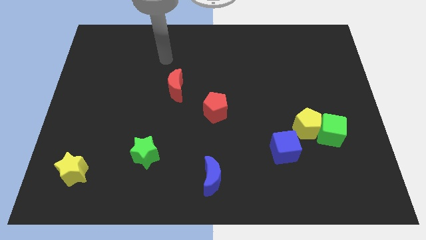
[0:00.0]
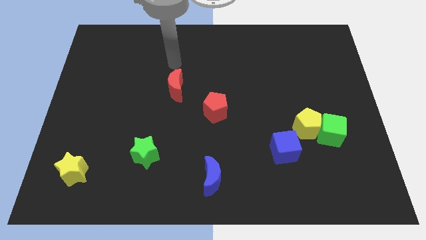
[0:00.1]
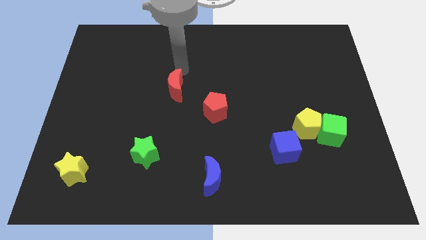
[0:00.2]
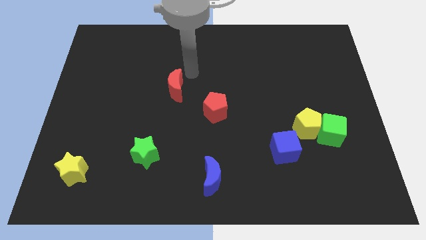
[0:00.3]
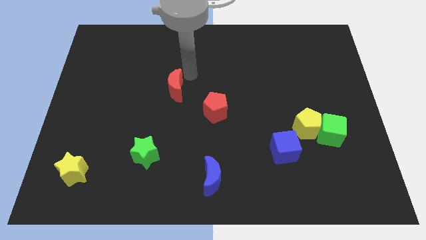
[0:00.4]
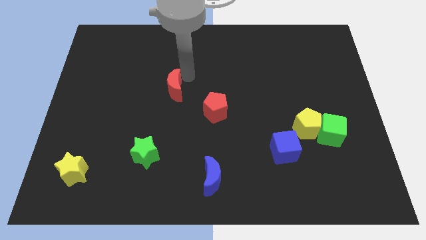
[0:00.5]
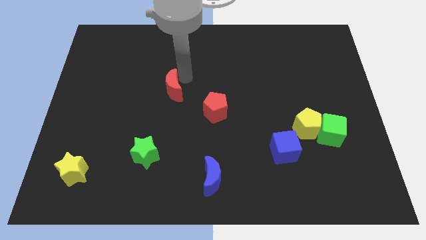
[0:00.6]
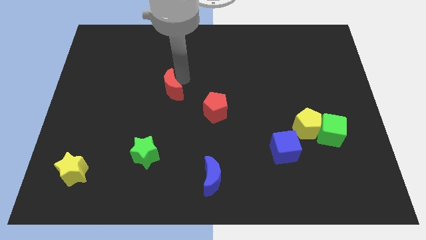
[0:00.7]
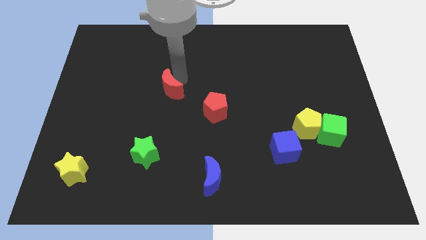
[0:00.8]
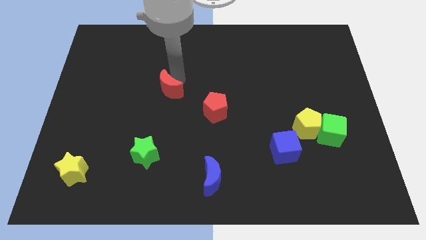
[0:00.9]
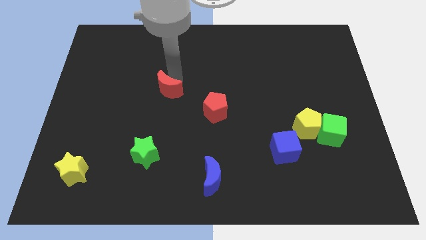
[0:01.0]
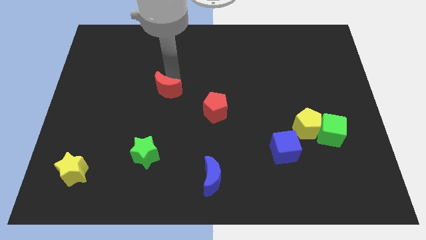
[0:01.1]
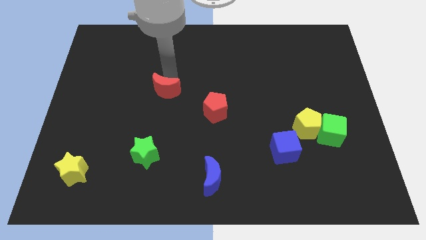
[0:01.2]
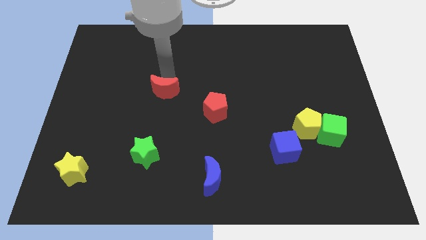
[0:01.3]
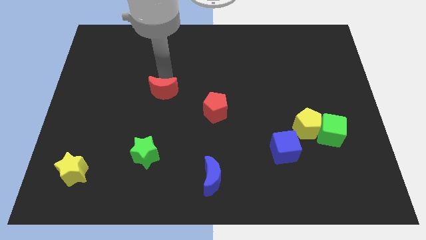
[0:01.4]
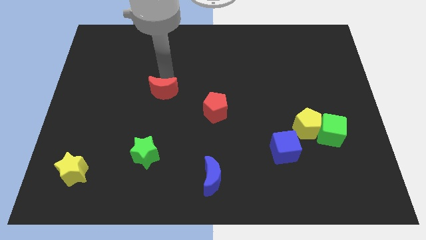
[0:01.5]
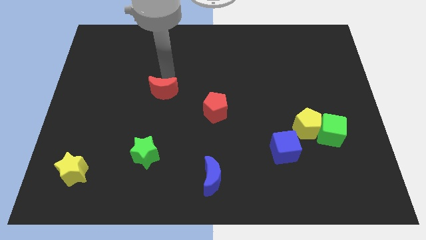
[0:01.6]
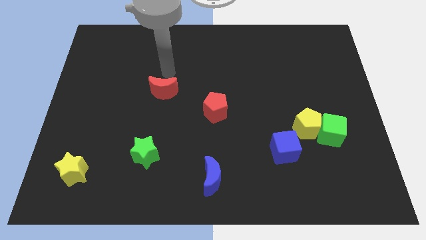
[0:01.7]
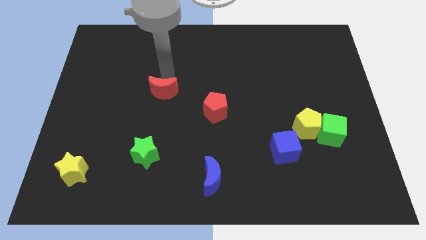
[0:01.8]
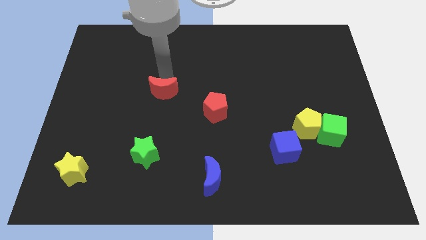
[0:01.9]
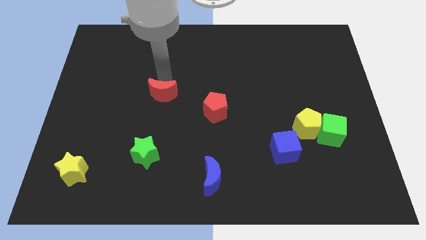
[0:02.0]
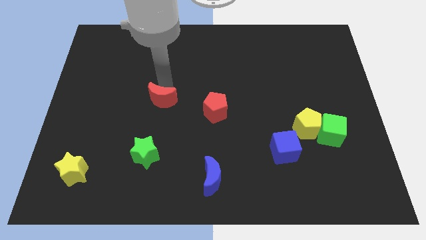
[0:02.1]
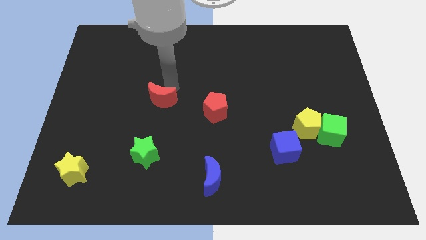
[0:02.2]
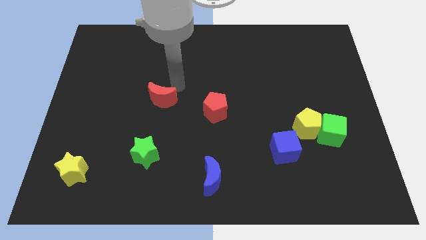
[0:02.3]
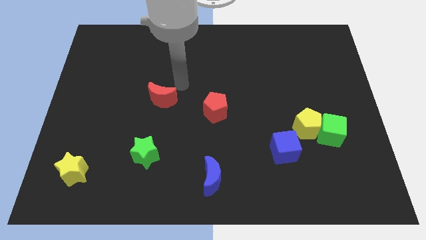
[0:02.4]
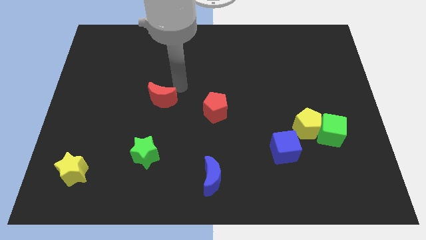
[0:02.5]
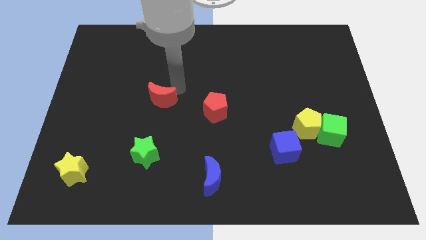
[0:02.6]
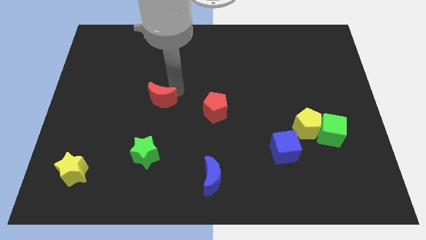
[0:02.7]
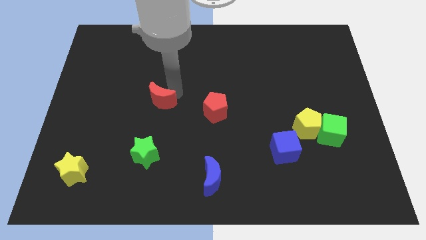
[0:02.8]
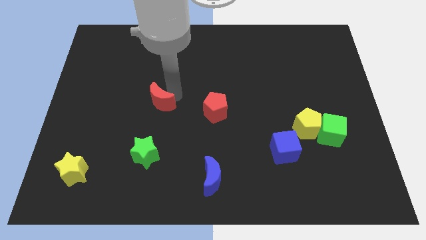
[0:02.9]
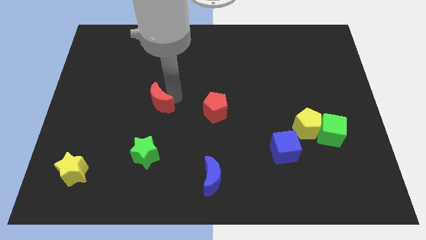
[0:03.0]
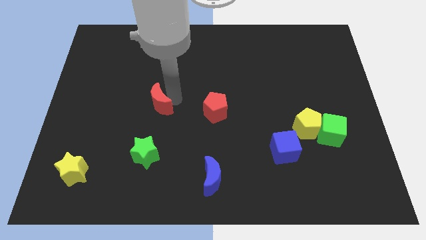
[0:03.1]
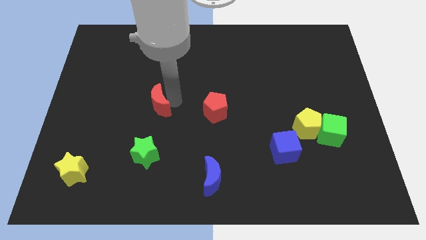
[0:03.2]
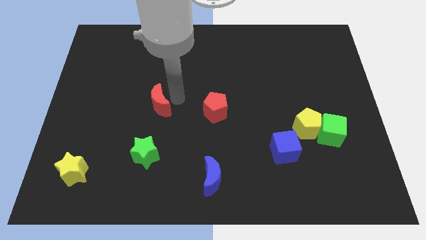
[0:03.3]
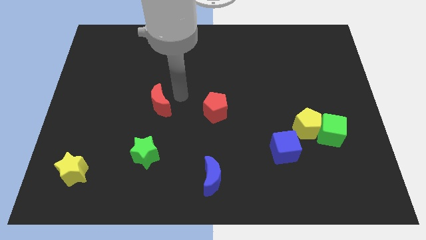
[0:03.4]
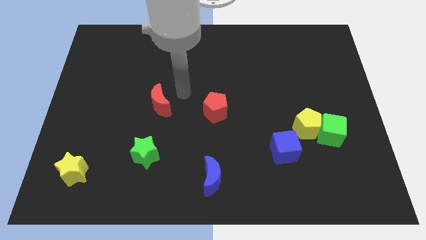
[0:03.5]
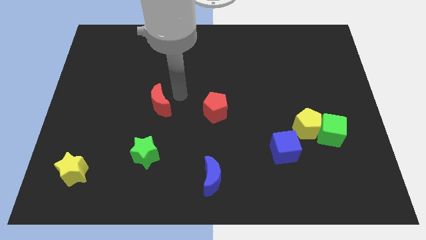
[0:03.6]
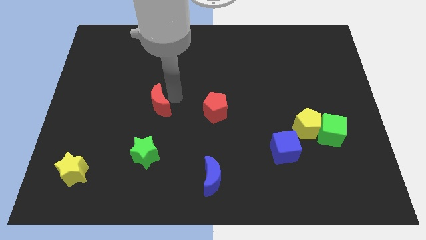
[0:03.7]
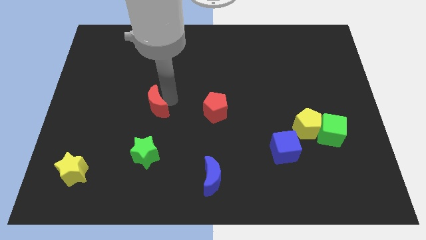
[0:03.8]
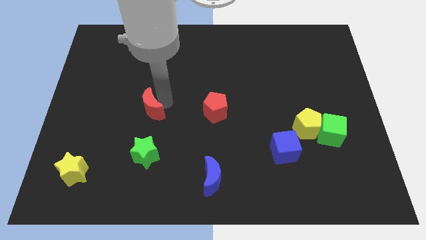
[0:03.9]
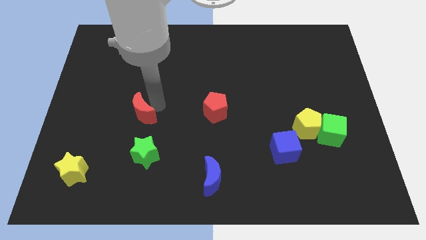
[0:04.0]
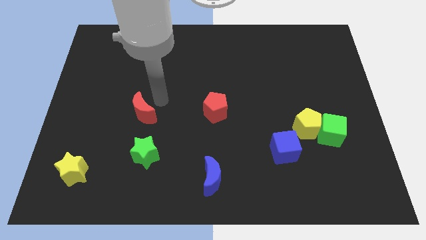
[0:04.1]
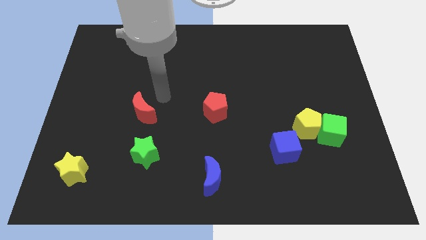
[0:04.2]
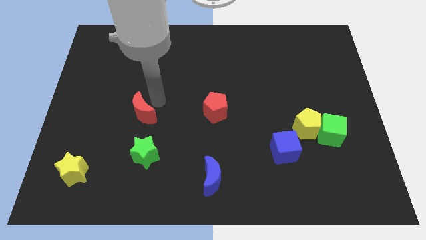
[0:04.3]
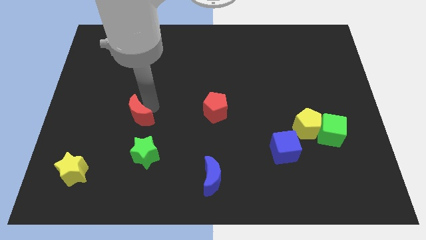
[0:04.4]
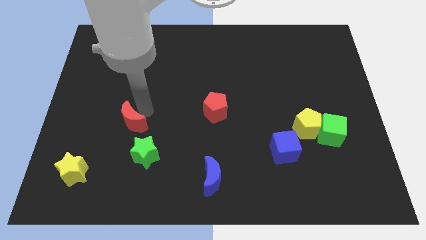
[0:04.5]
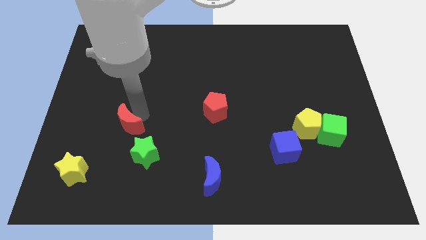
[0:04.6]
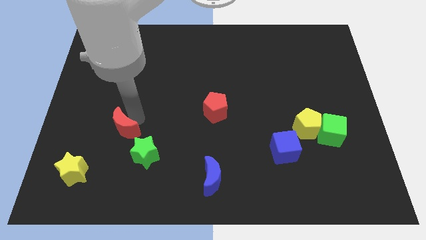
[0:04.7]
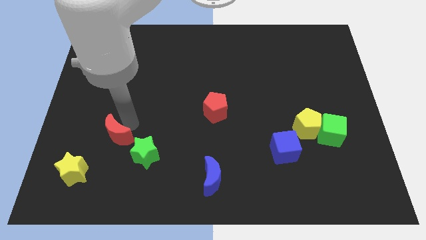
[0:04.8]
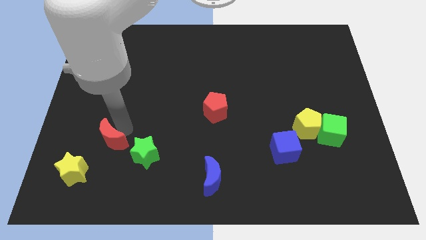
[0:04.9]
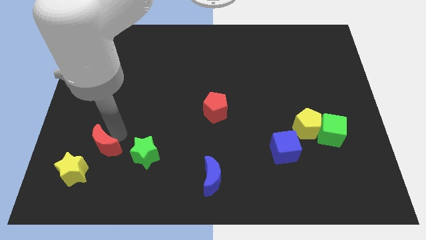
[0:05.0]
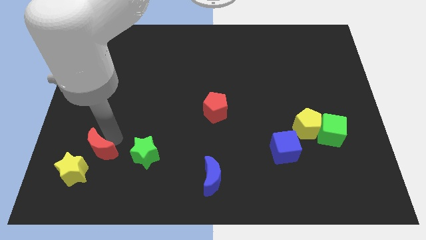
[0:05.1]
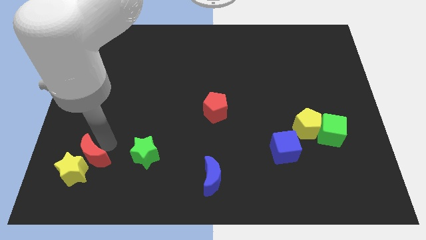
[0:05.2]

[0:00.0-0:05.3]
move the red moon towards the yellow star

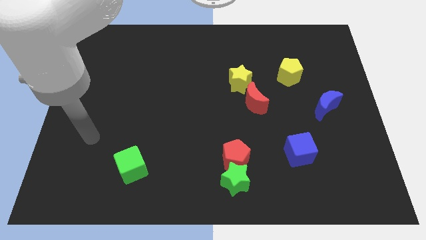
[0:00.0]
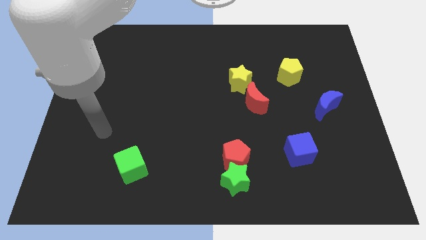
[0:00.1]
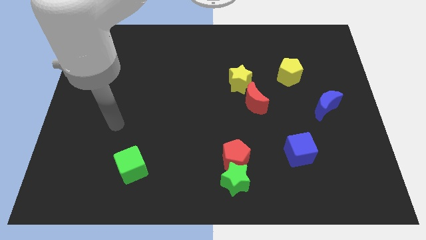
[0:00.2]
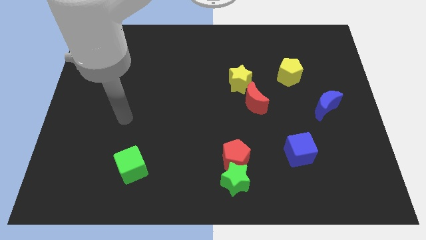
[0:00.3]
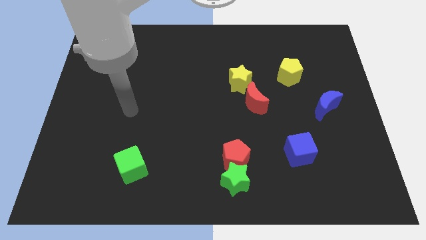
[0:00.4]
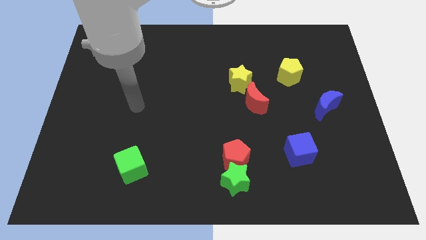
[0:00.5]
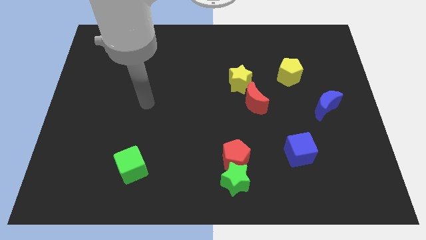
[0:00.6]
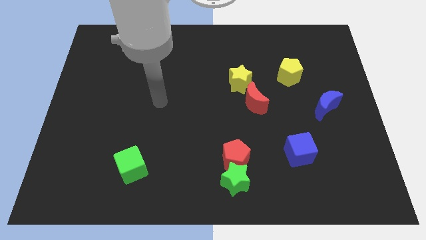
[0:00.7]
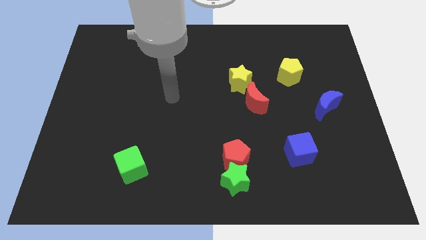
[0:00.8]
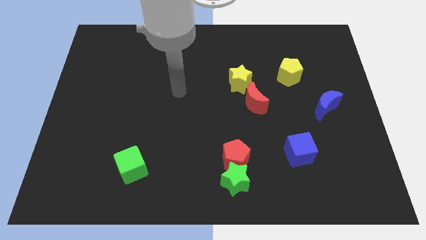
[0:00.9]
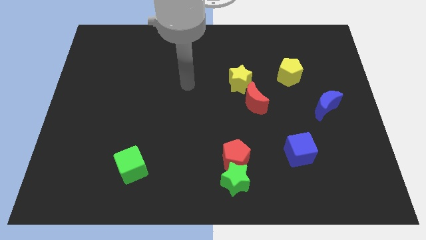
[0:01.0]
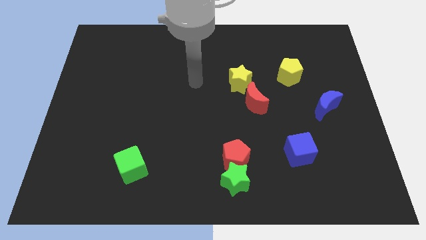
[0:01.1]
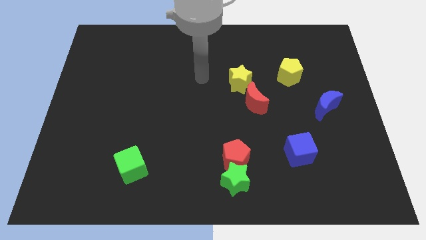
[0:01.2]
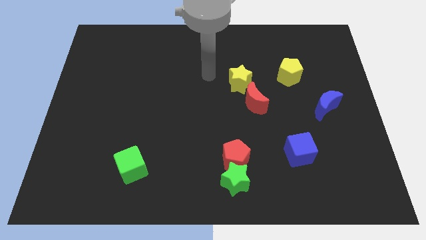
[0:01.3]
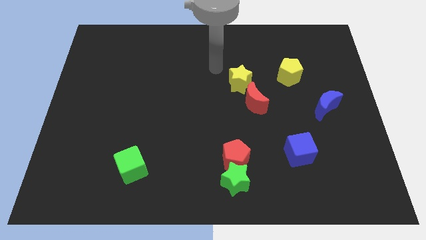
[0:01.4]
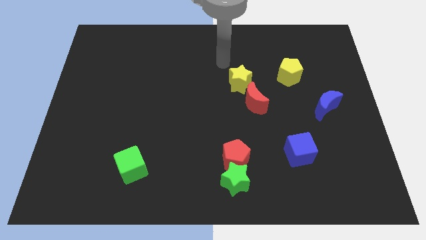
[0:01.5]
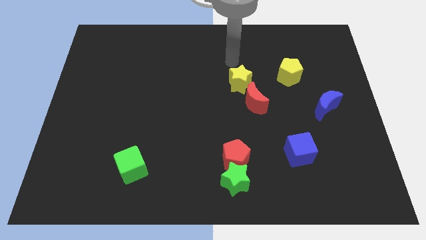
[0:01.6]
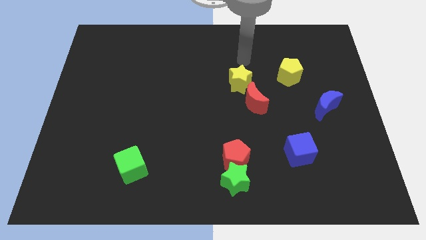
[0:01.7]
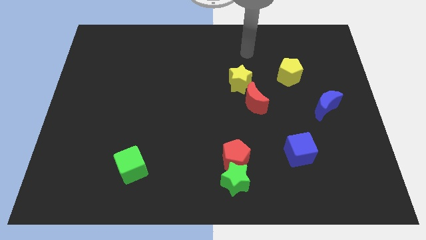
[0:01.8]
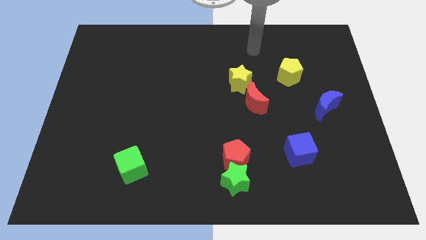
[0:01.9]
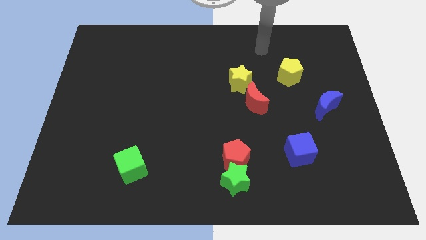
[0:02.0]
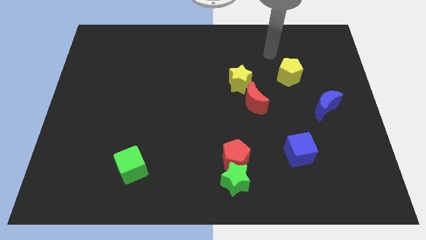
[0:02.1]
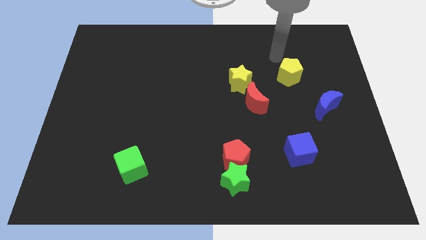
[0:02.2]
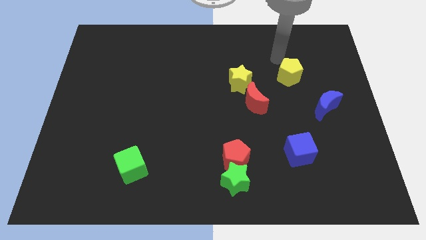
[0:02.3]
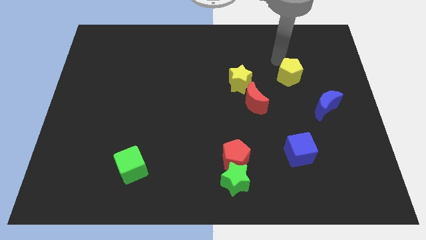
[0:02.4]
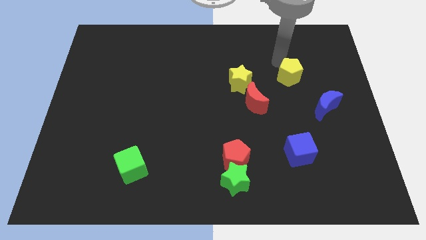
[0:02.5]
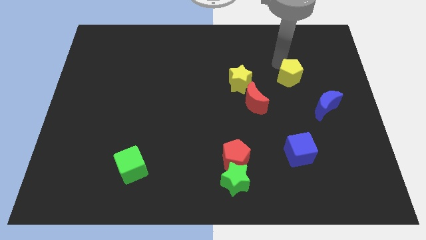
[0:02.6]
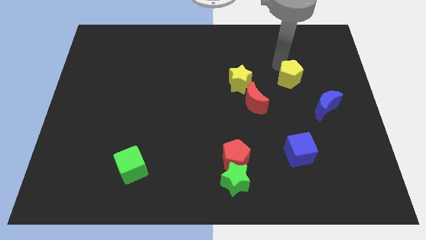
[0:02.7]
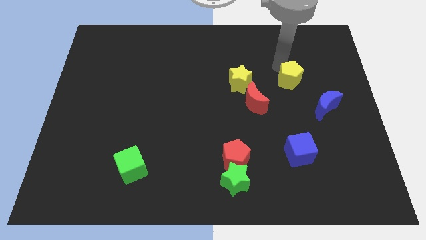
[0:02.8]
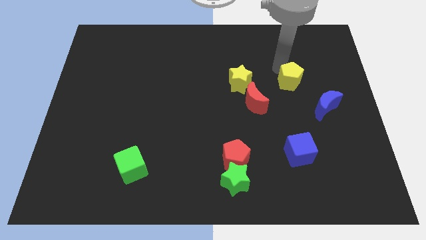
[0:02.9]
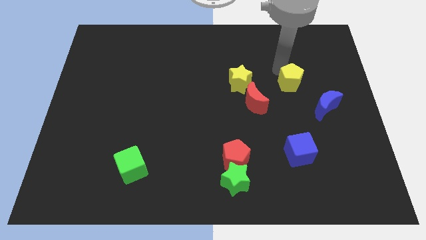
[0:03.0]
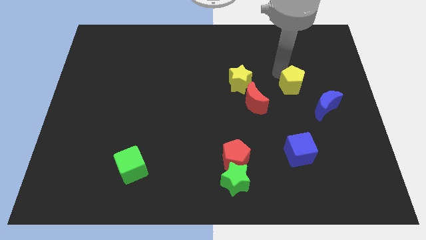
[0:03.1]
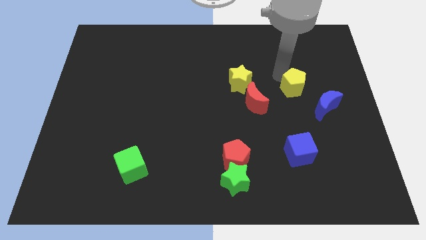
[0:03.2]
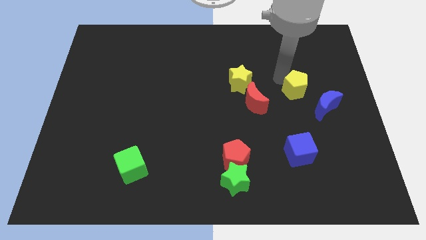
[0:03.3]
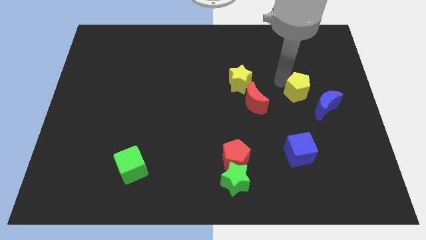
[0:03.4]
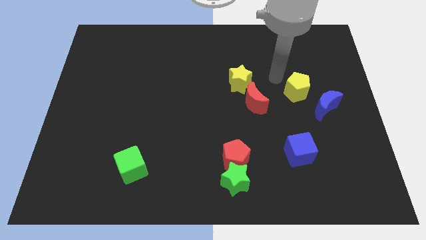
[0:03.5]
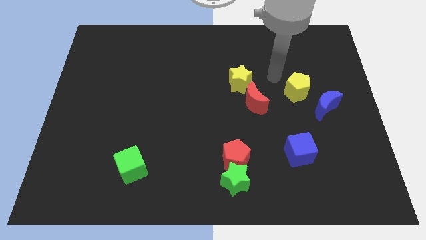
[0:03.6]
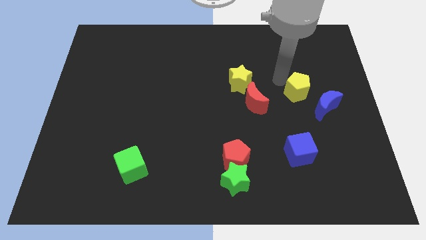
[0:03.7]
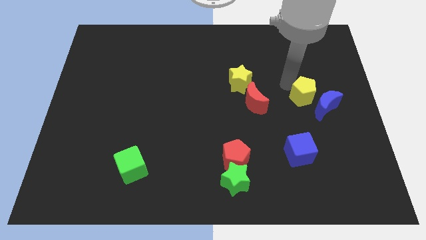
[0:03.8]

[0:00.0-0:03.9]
move the yellow pentagon close to the blue moon
